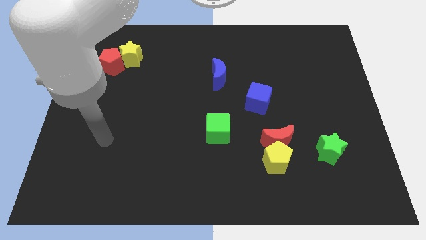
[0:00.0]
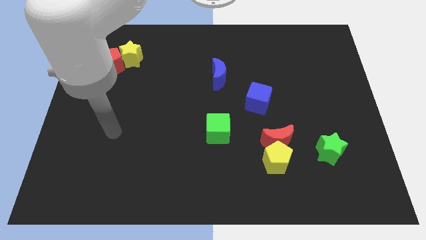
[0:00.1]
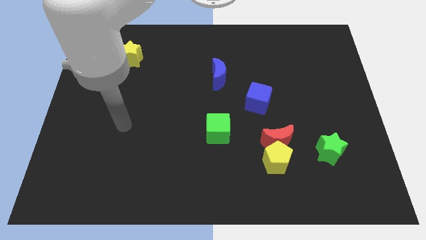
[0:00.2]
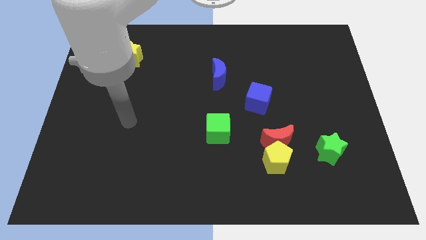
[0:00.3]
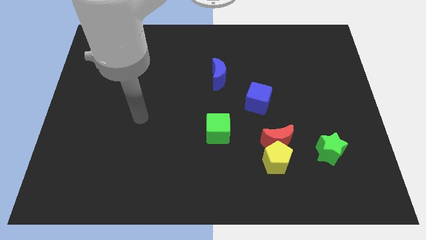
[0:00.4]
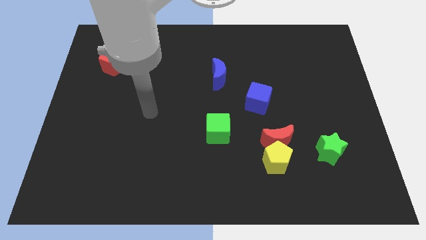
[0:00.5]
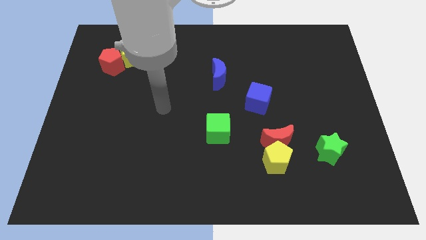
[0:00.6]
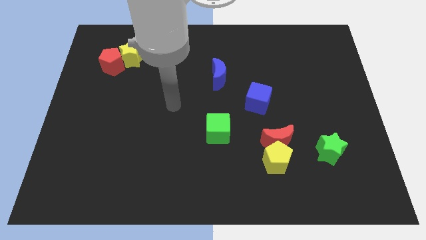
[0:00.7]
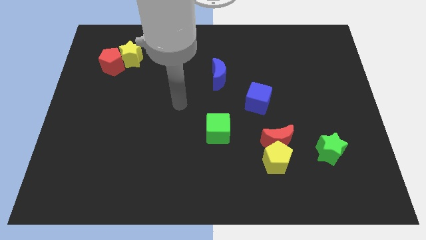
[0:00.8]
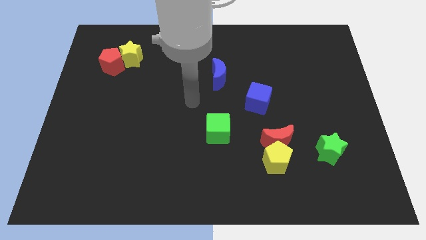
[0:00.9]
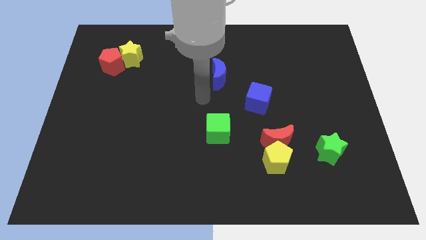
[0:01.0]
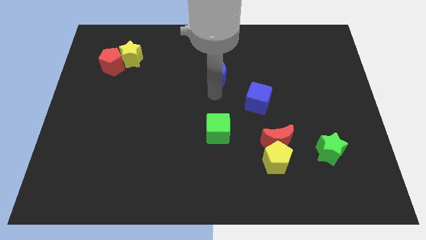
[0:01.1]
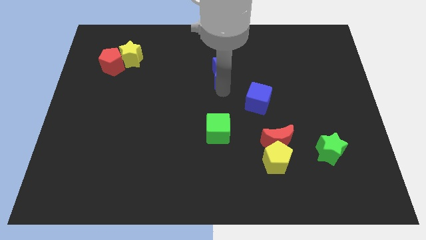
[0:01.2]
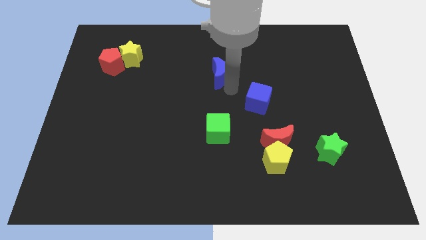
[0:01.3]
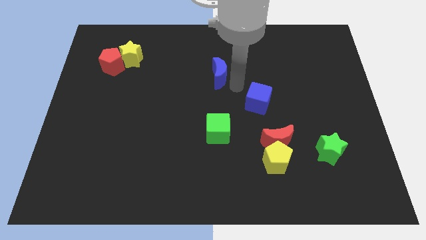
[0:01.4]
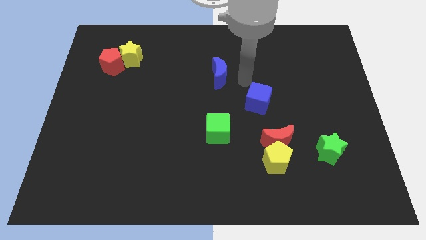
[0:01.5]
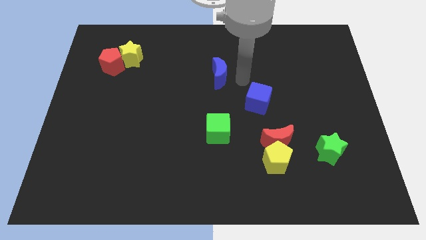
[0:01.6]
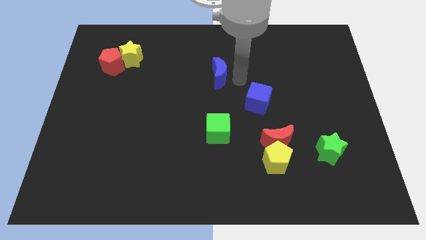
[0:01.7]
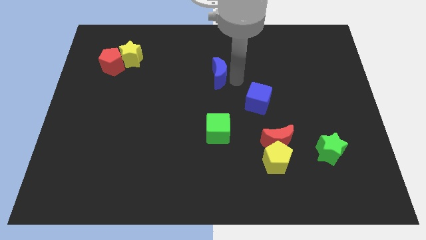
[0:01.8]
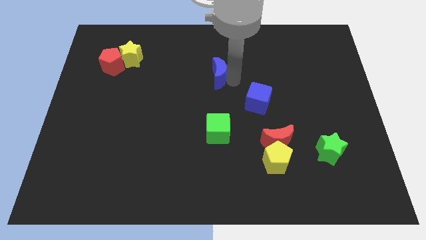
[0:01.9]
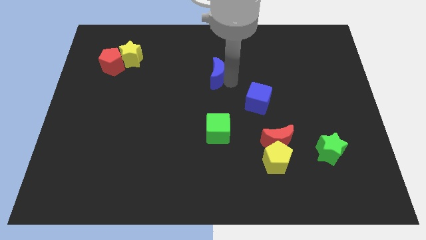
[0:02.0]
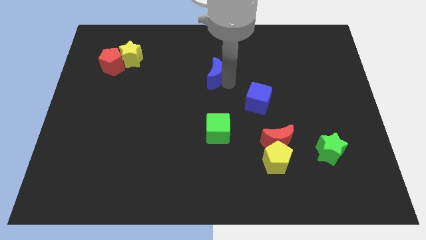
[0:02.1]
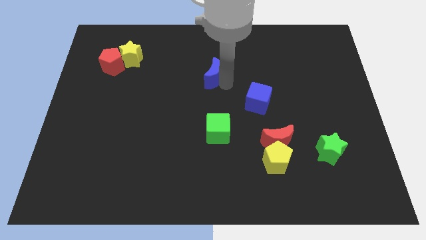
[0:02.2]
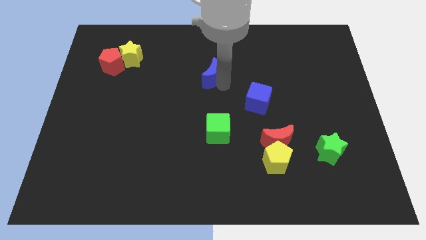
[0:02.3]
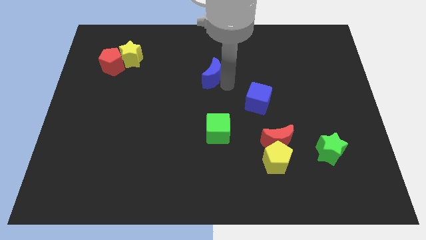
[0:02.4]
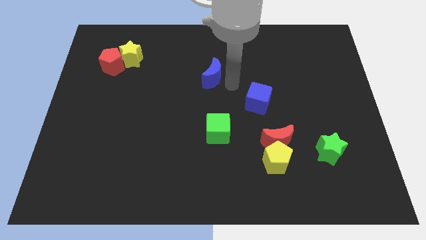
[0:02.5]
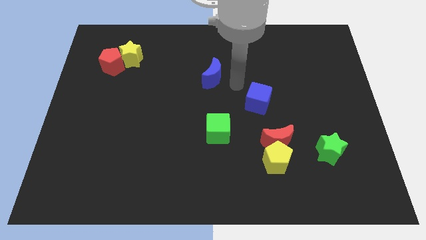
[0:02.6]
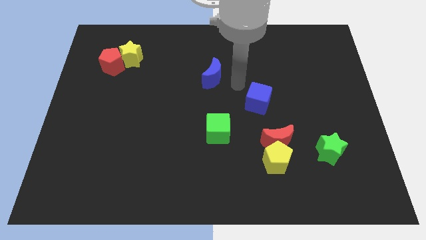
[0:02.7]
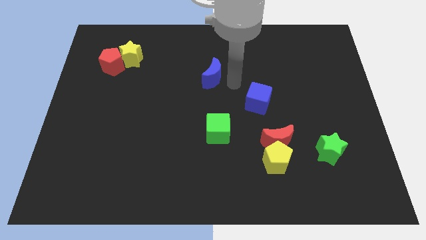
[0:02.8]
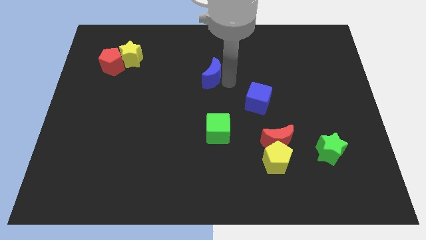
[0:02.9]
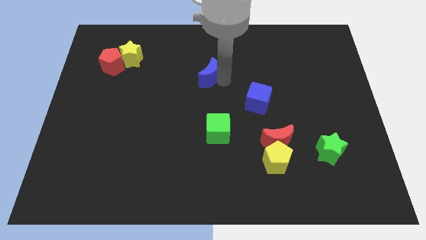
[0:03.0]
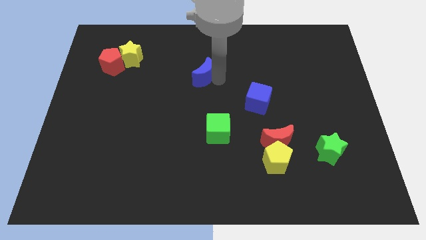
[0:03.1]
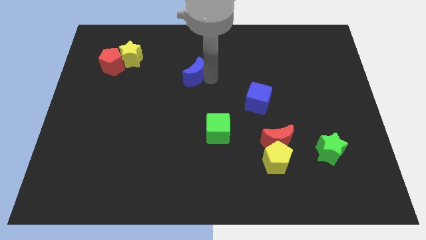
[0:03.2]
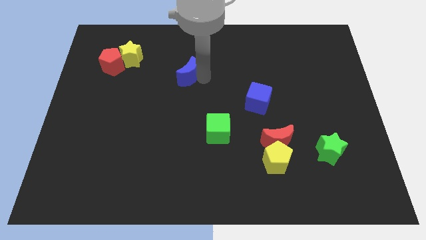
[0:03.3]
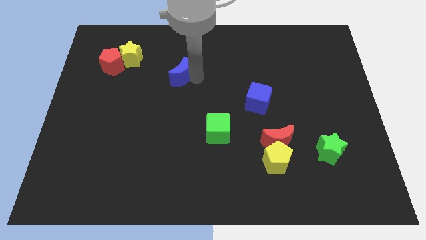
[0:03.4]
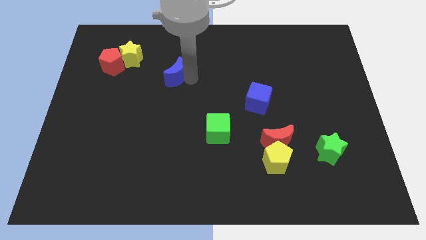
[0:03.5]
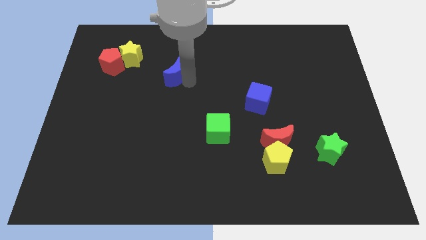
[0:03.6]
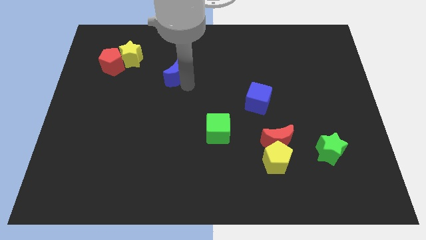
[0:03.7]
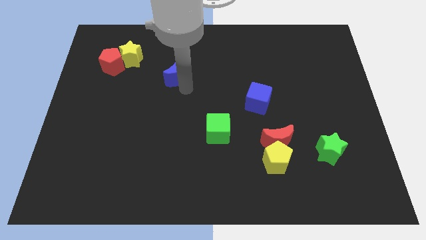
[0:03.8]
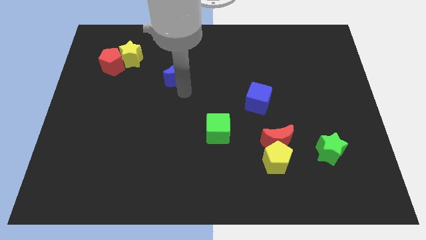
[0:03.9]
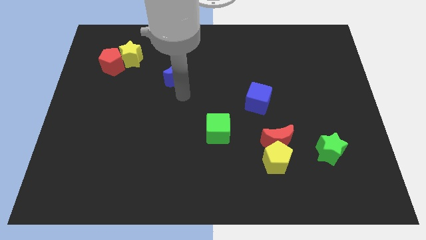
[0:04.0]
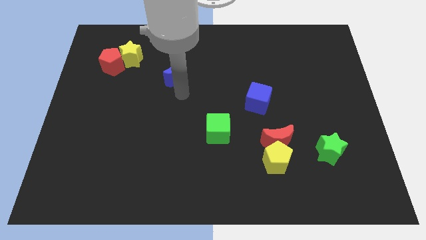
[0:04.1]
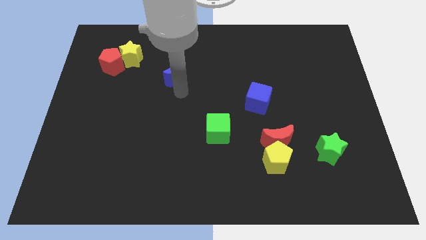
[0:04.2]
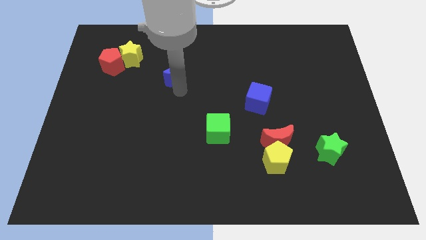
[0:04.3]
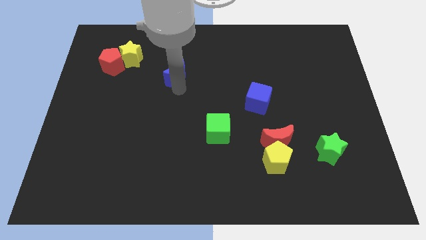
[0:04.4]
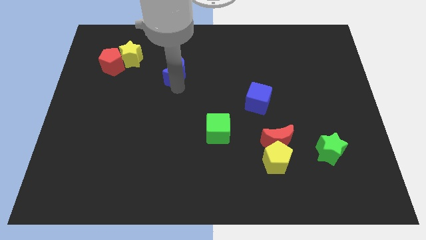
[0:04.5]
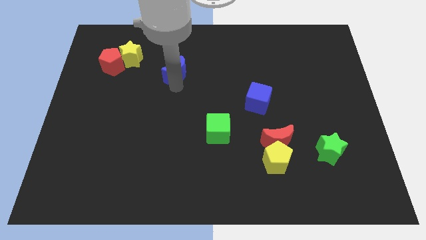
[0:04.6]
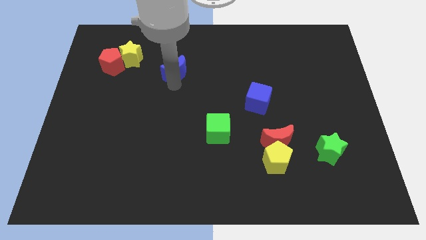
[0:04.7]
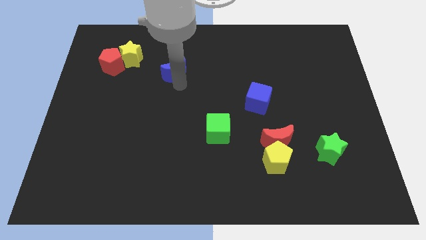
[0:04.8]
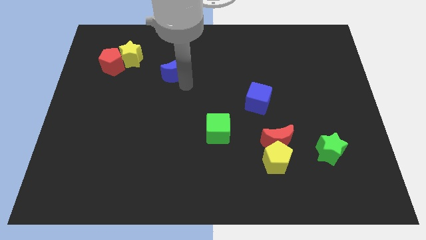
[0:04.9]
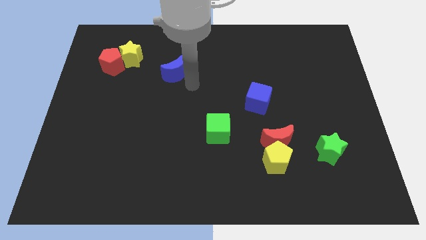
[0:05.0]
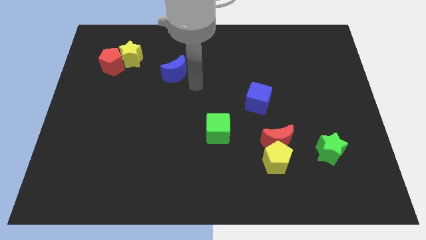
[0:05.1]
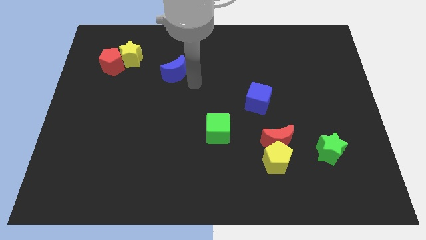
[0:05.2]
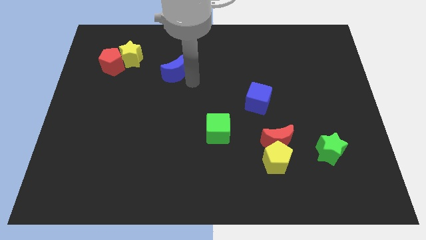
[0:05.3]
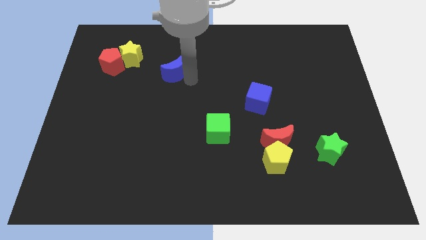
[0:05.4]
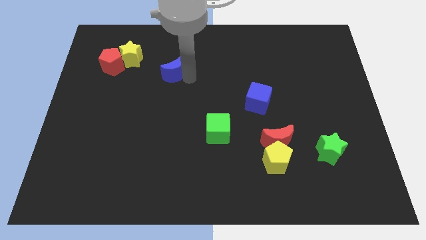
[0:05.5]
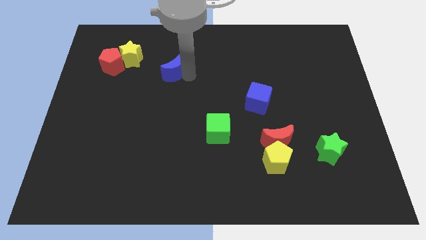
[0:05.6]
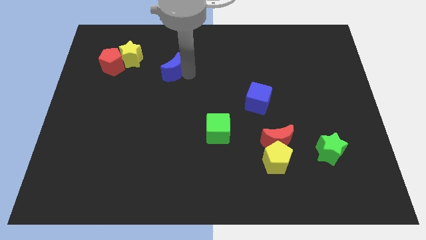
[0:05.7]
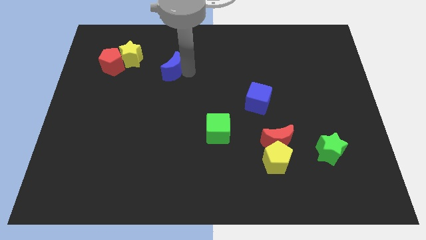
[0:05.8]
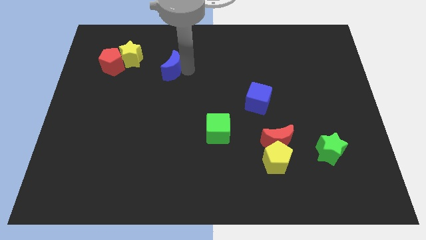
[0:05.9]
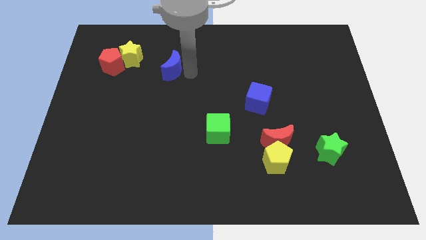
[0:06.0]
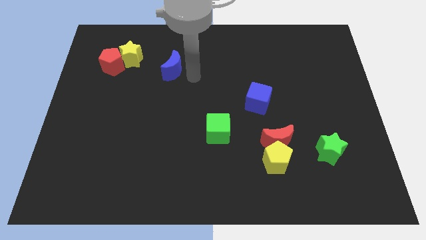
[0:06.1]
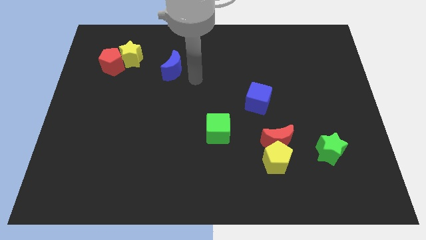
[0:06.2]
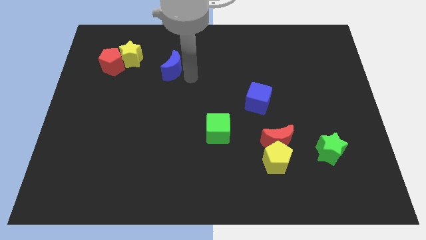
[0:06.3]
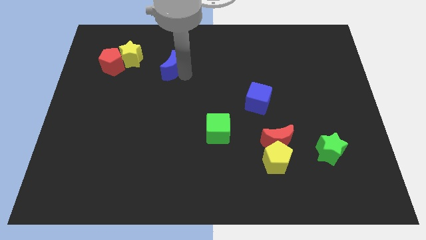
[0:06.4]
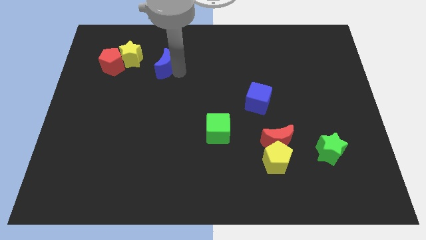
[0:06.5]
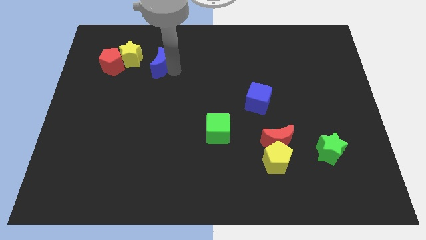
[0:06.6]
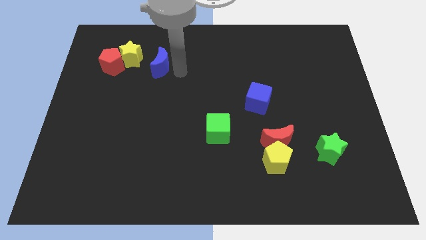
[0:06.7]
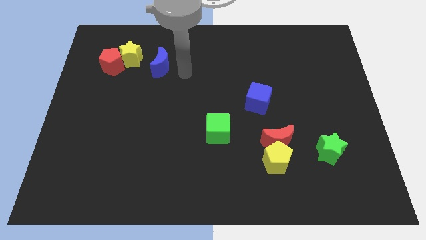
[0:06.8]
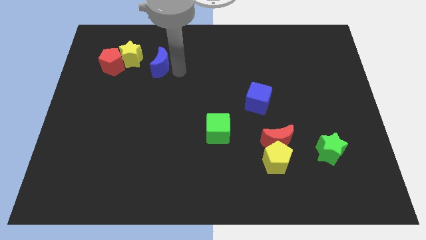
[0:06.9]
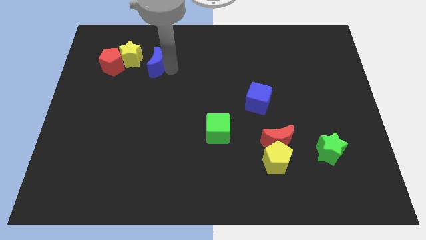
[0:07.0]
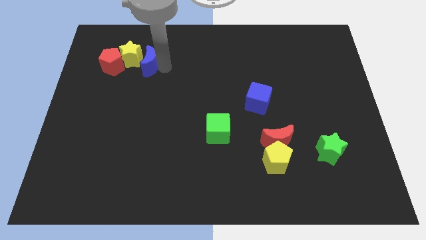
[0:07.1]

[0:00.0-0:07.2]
put the blue moon close to the yellow star
